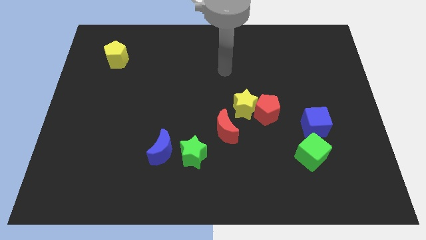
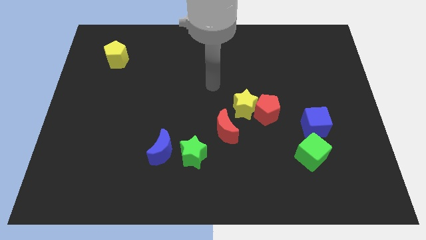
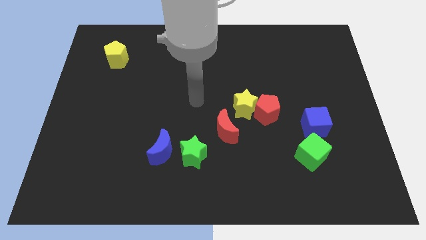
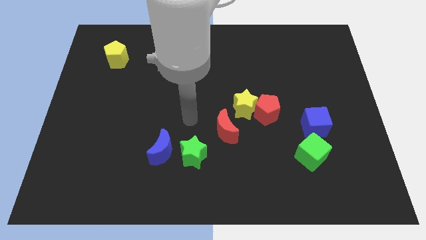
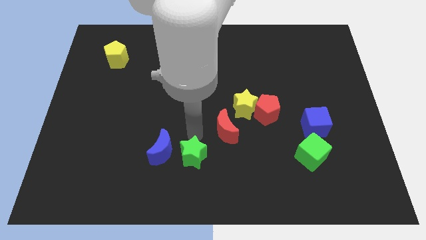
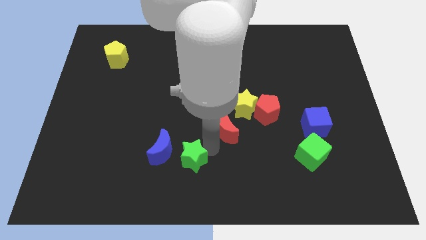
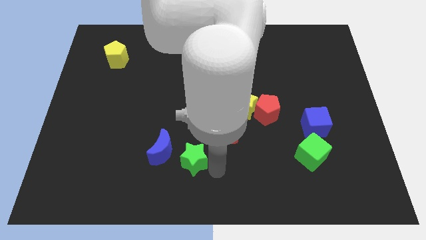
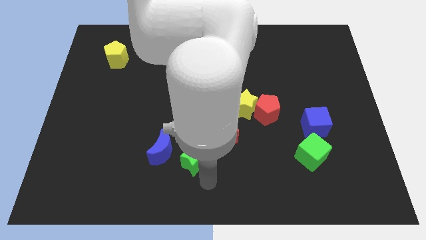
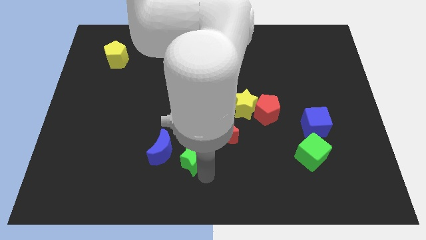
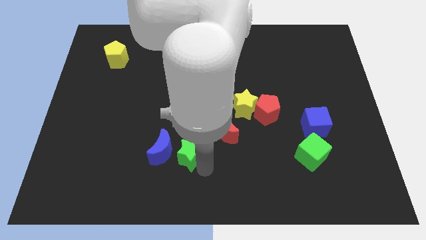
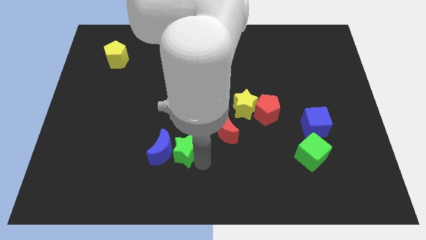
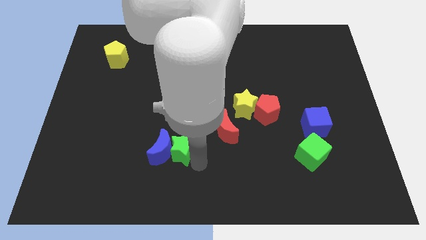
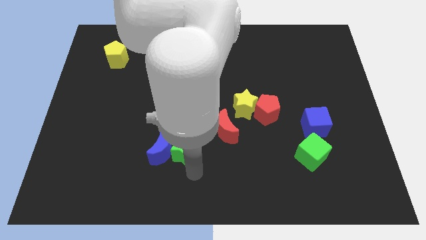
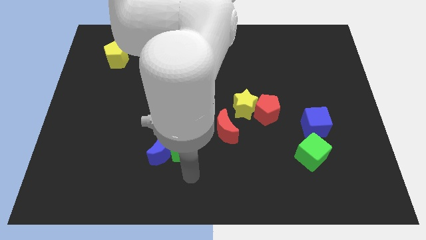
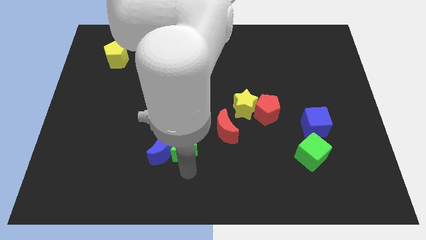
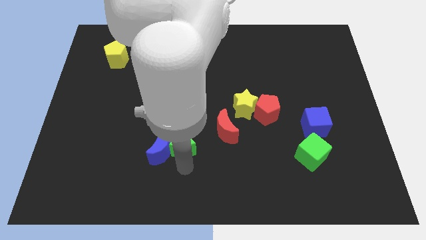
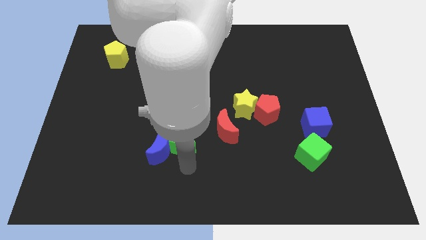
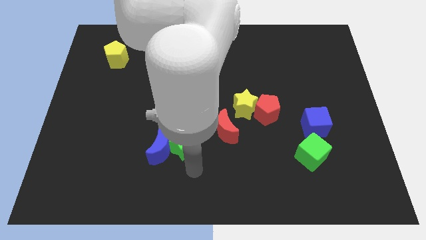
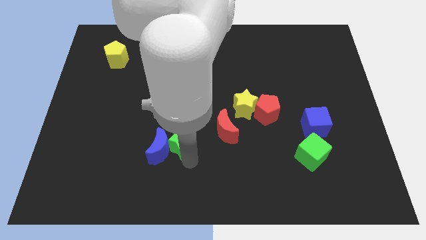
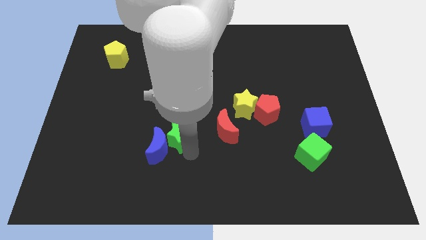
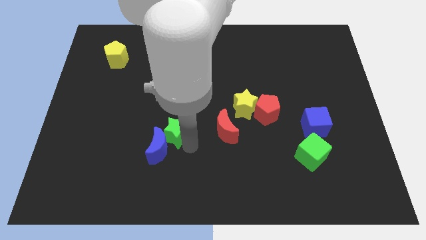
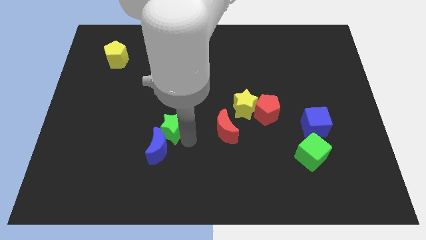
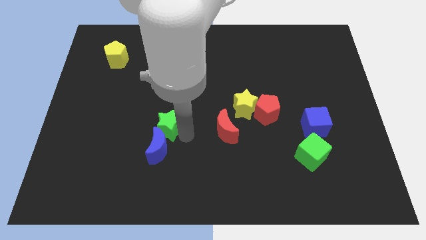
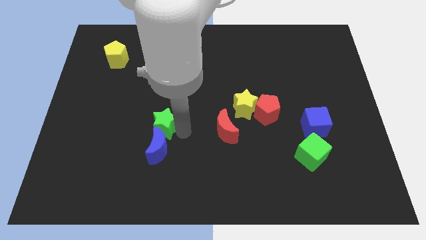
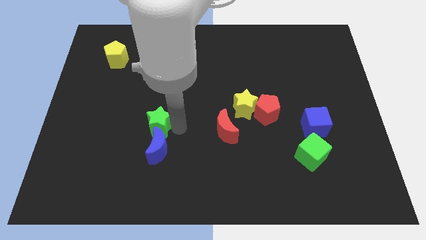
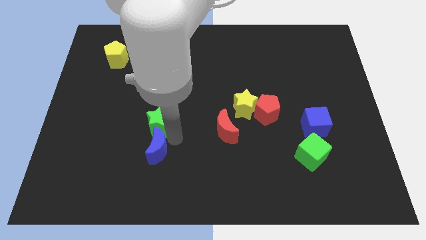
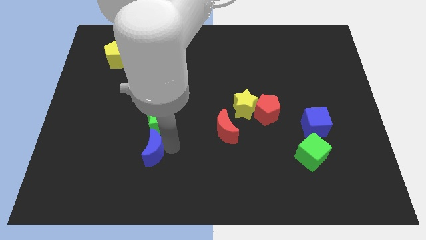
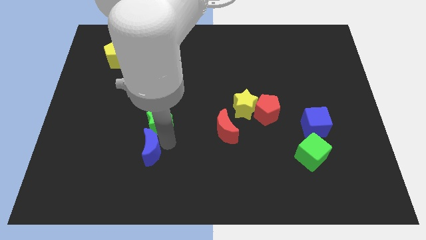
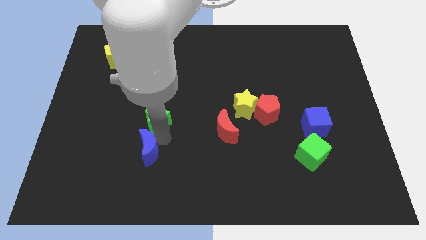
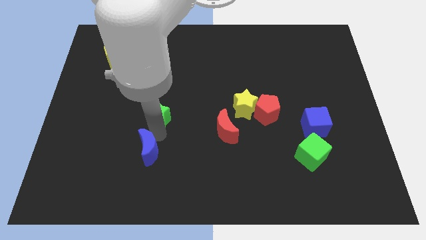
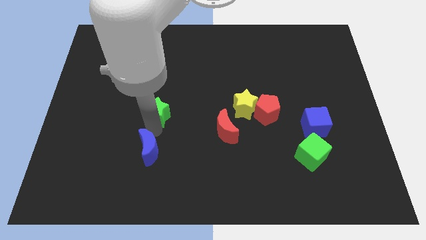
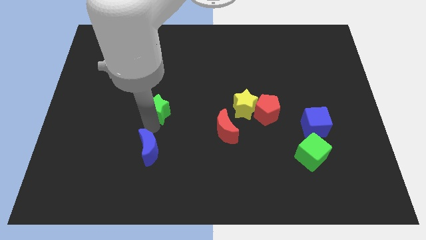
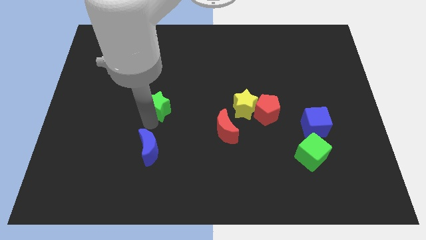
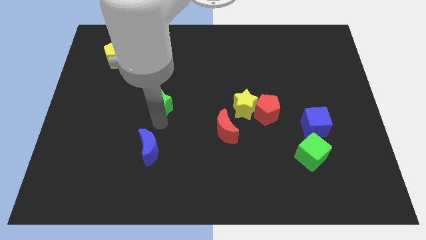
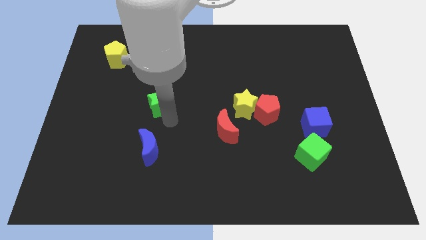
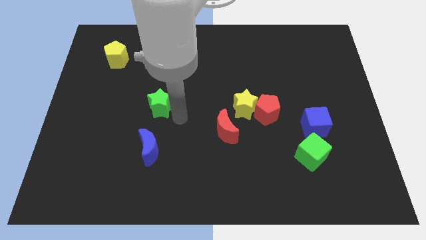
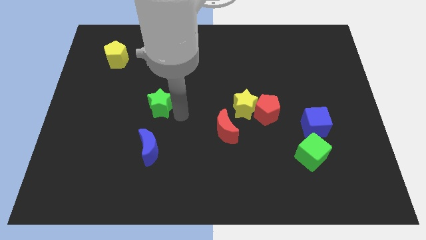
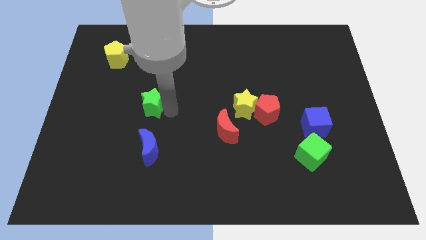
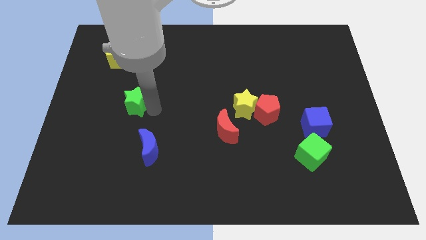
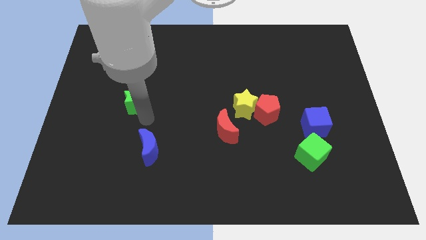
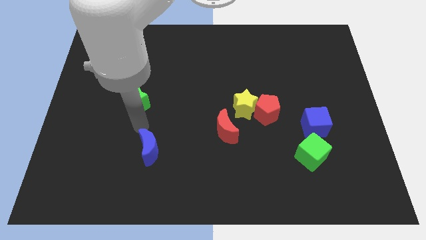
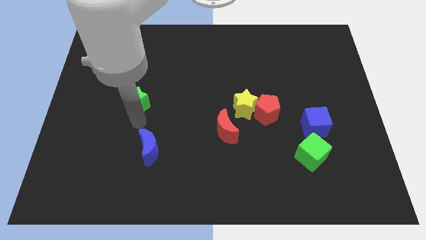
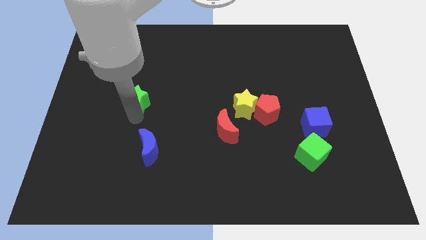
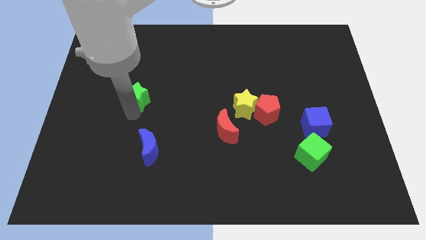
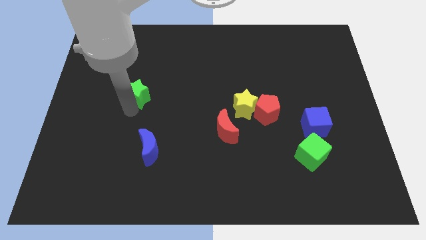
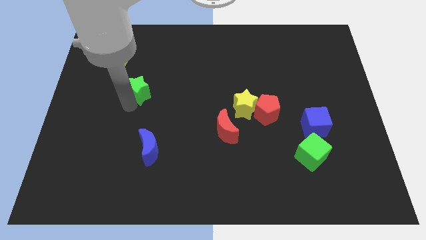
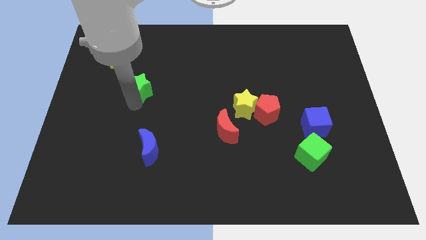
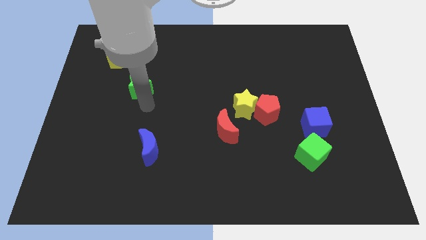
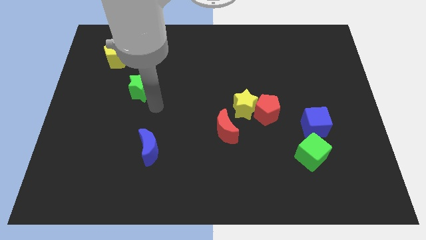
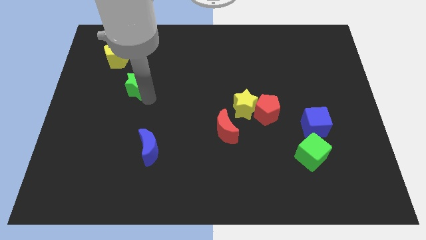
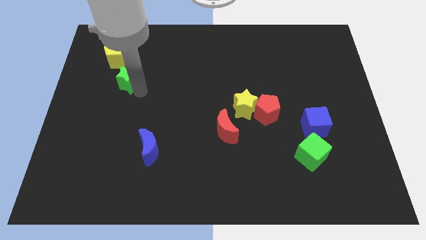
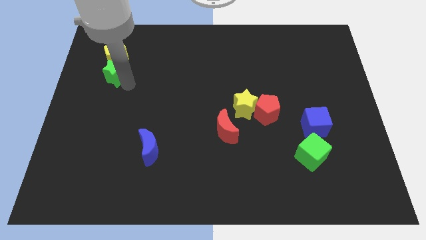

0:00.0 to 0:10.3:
put the green star towards the yellow pentagon

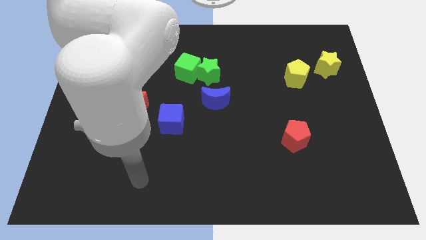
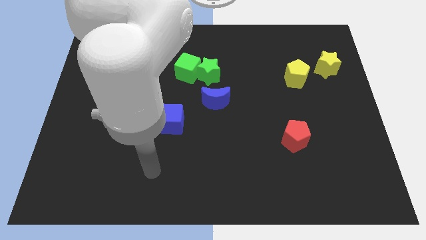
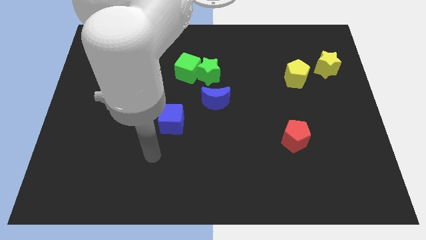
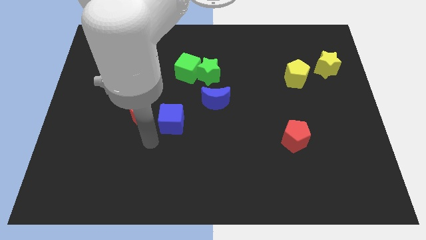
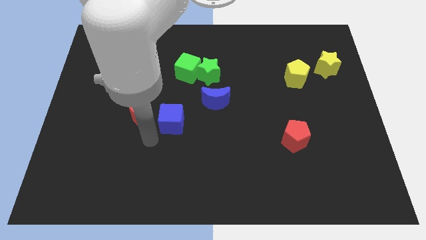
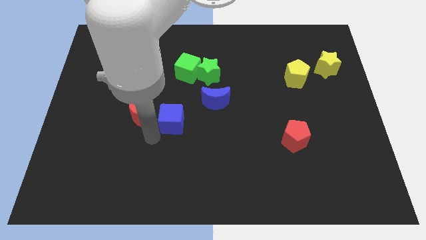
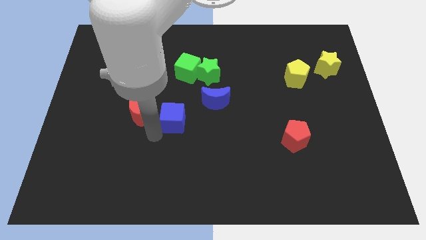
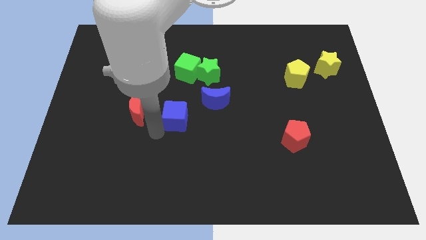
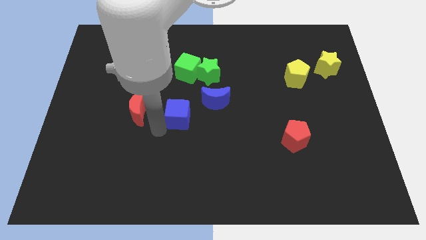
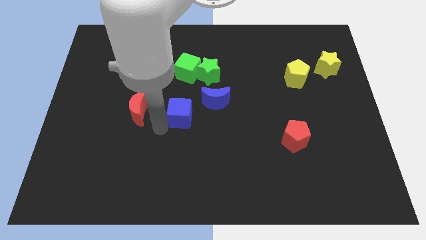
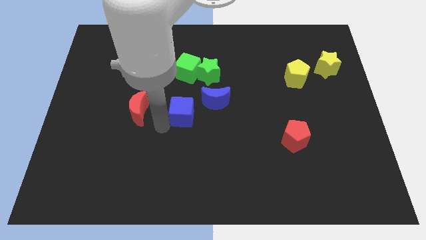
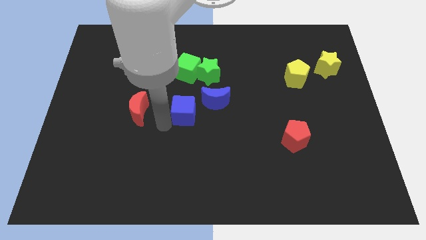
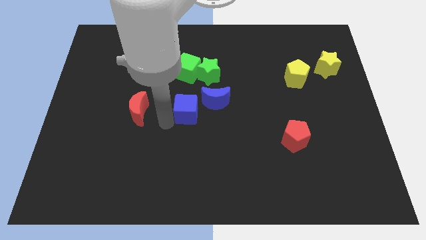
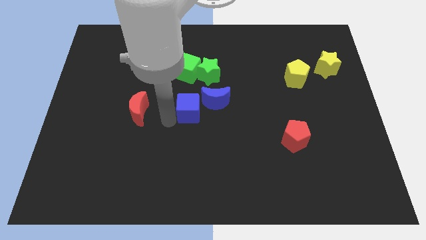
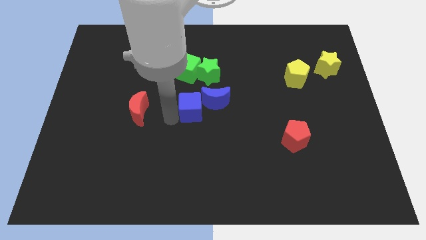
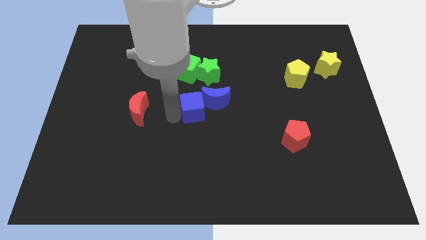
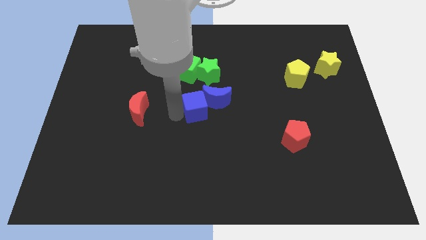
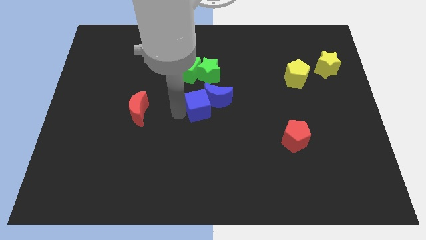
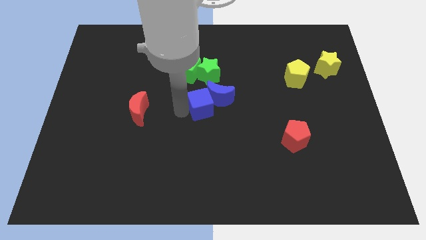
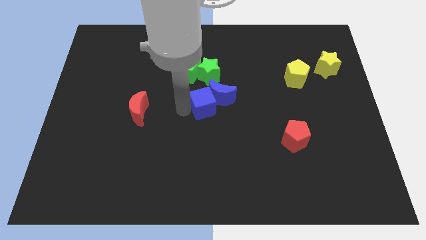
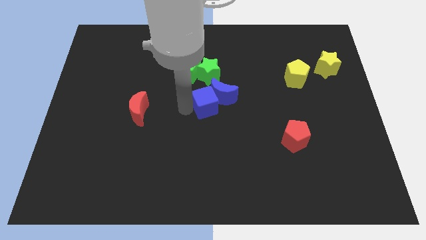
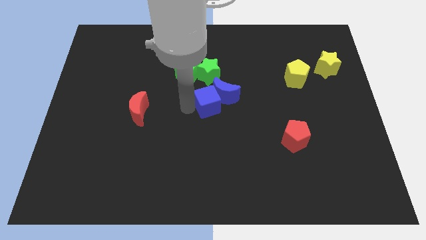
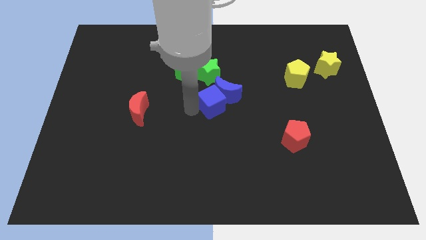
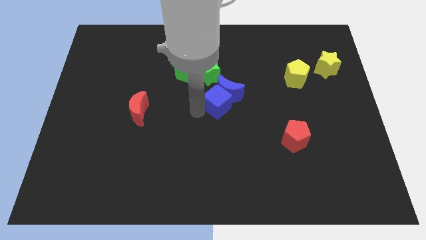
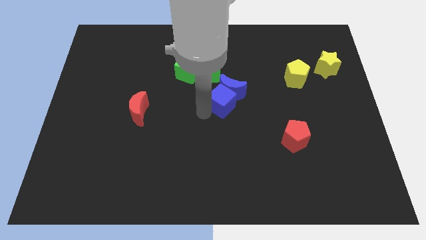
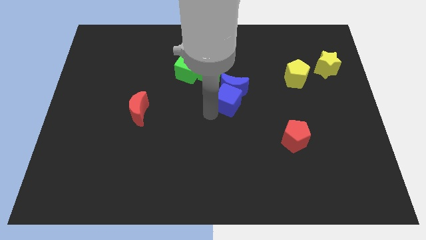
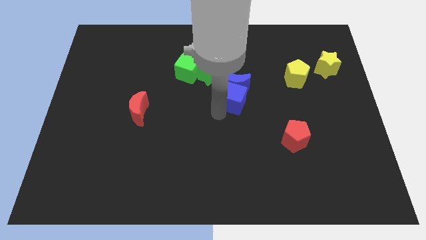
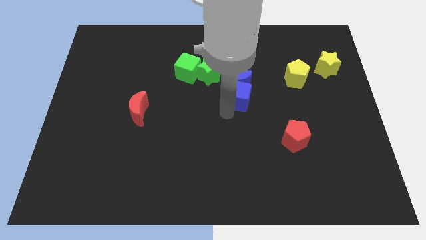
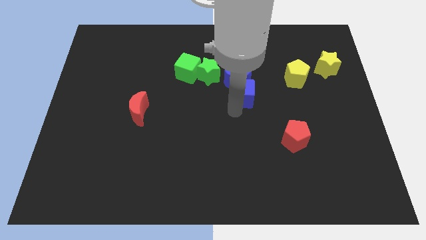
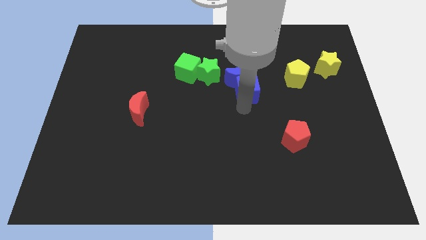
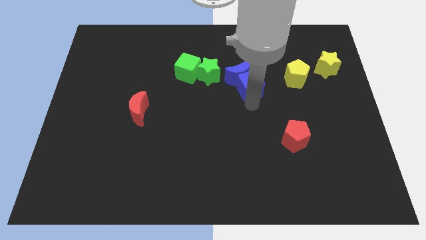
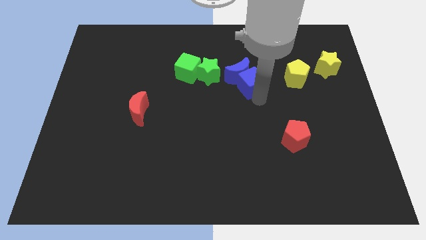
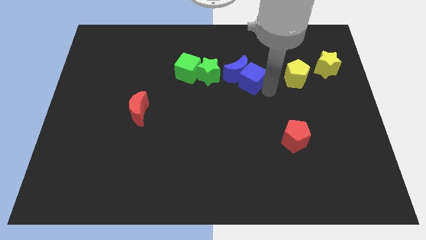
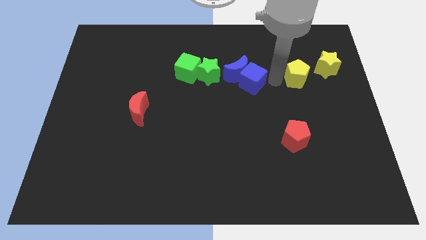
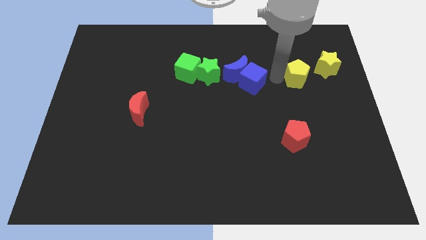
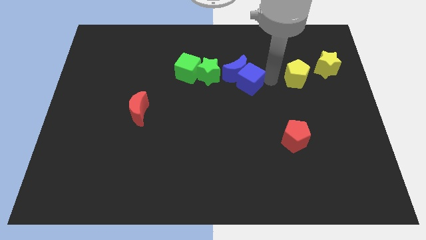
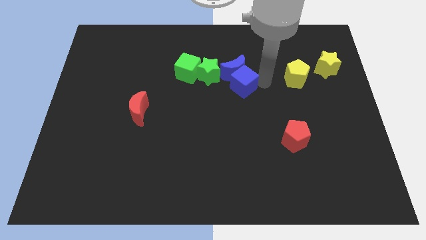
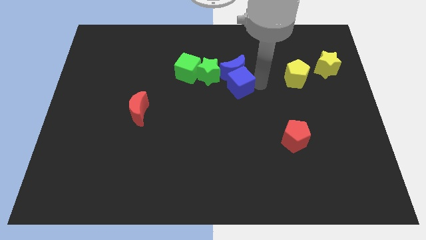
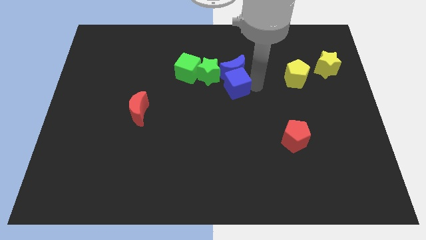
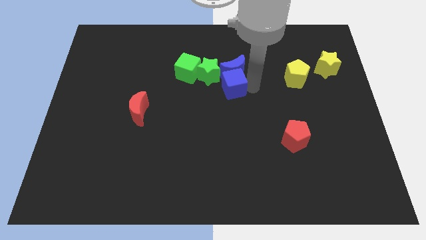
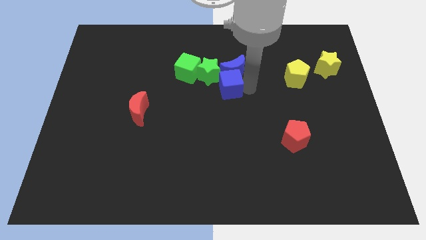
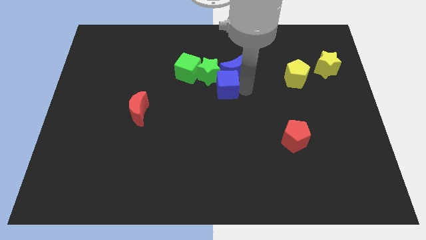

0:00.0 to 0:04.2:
move the blue cube next to the green star
